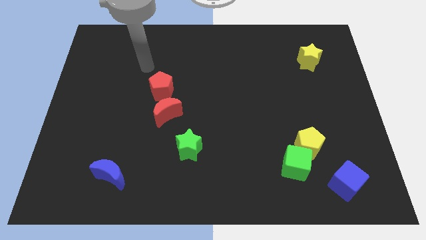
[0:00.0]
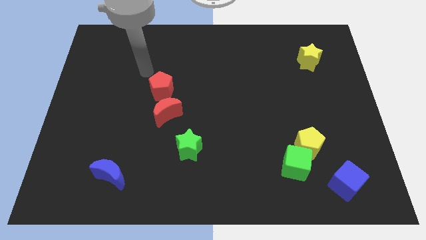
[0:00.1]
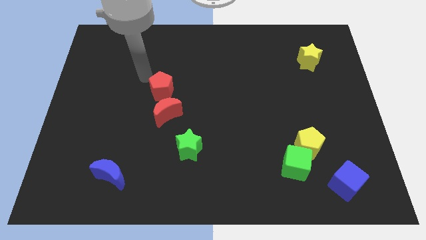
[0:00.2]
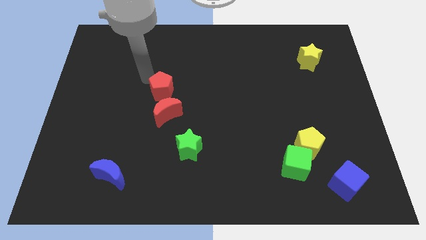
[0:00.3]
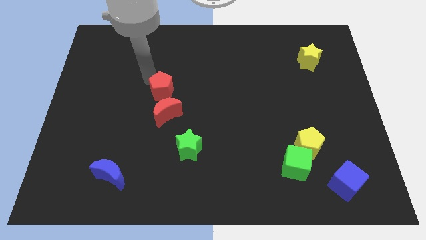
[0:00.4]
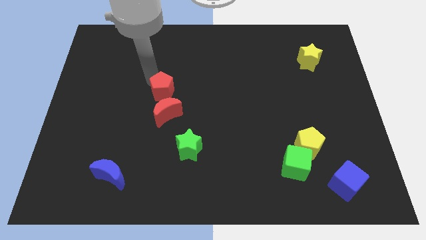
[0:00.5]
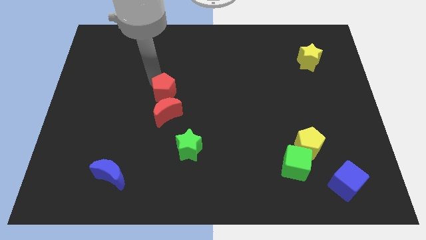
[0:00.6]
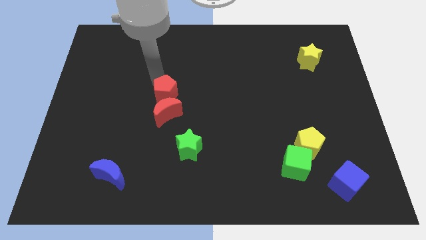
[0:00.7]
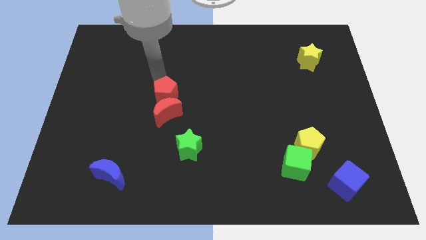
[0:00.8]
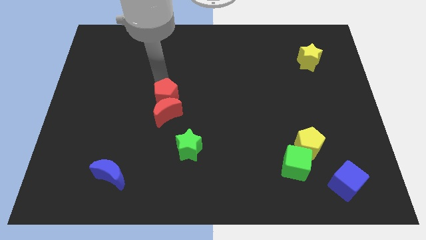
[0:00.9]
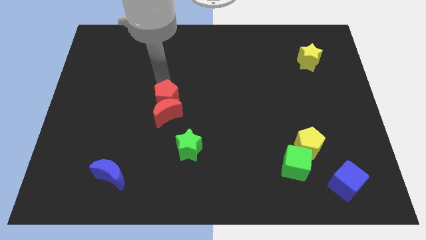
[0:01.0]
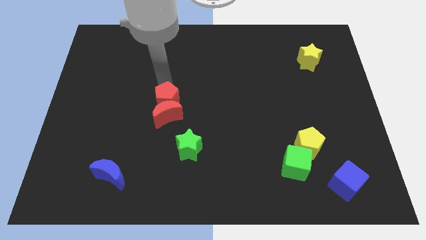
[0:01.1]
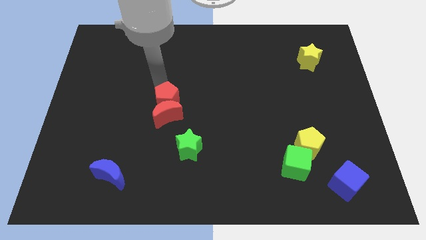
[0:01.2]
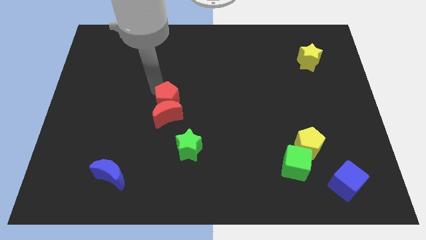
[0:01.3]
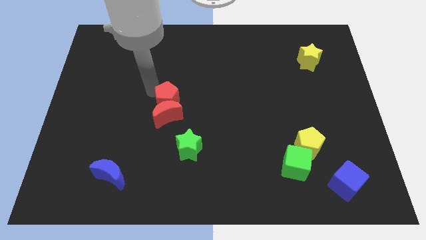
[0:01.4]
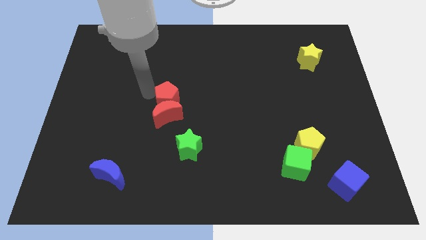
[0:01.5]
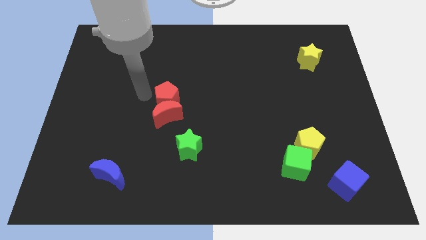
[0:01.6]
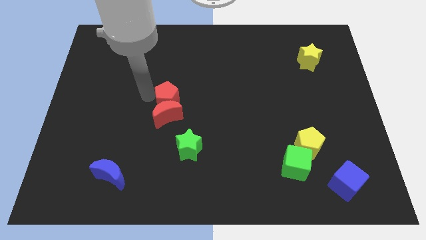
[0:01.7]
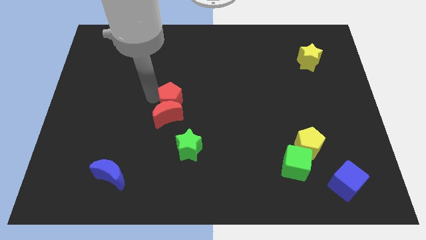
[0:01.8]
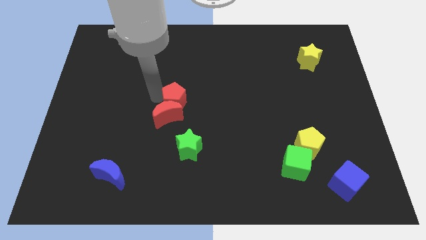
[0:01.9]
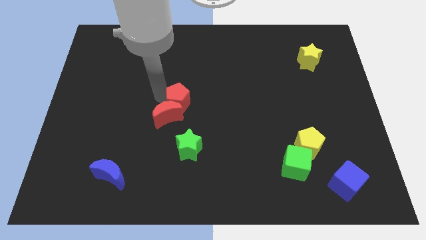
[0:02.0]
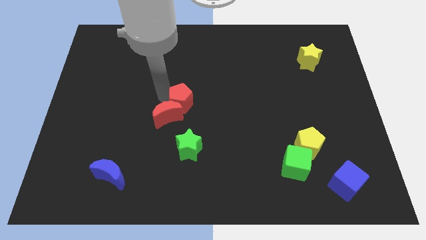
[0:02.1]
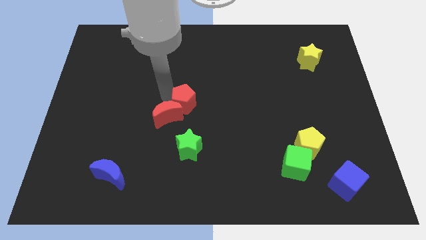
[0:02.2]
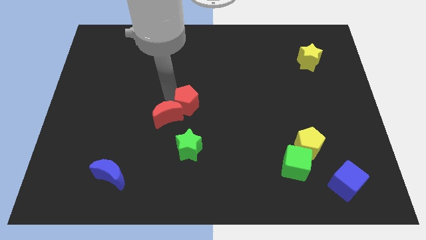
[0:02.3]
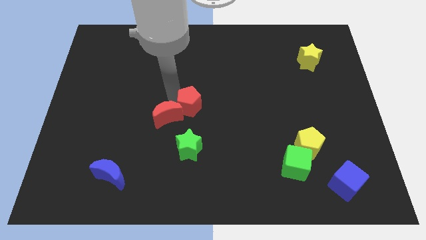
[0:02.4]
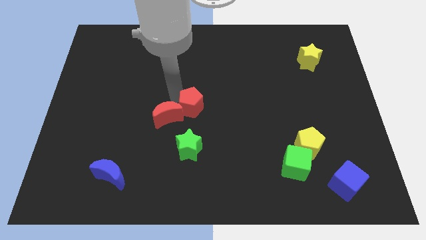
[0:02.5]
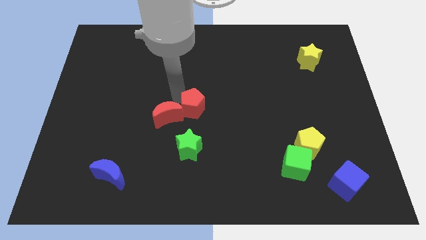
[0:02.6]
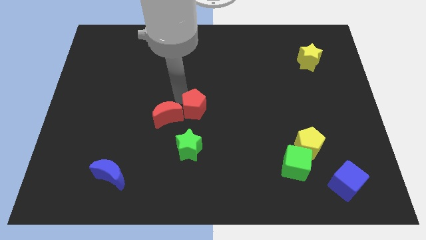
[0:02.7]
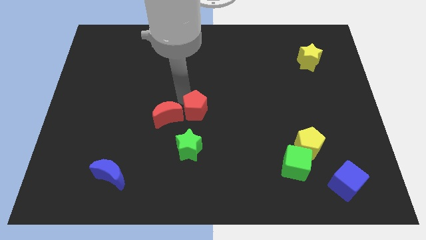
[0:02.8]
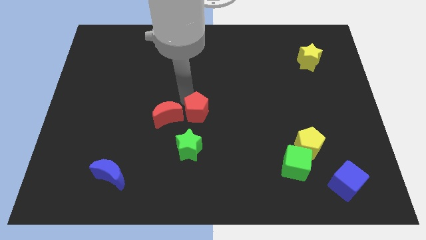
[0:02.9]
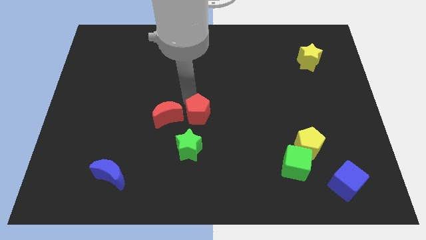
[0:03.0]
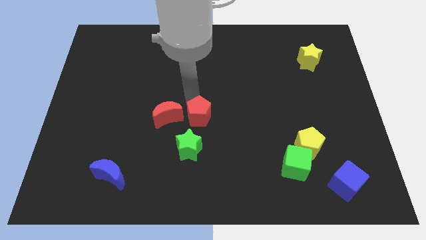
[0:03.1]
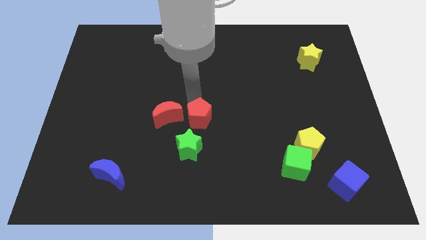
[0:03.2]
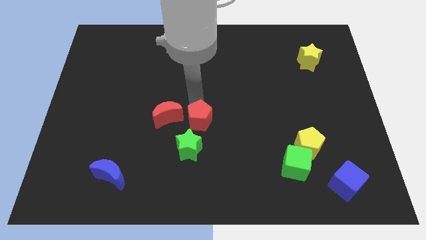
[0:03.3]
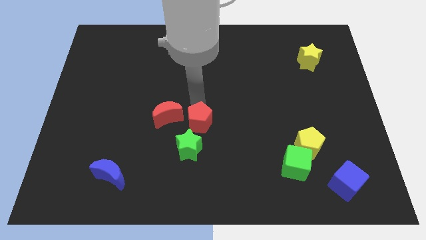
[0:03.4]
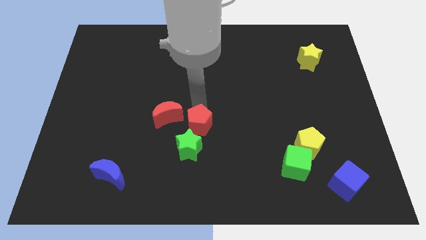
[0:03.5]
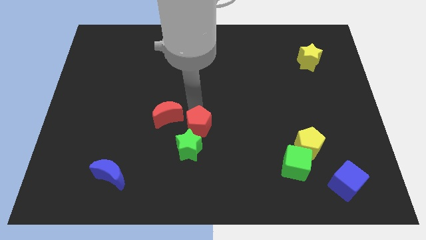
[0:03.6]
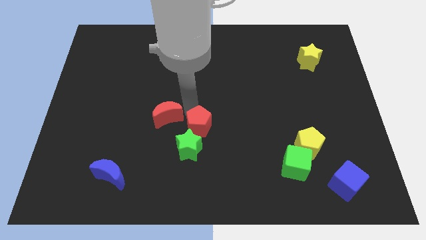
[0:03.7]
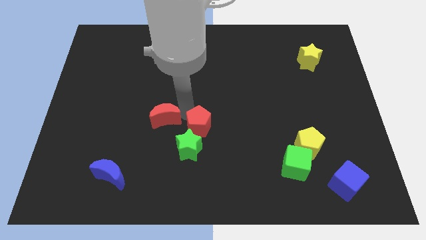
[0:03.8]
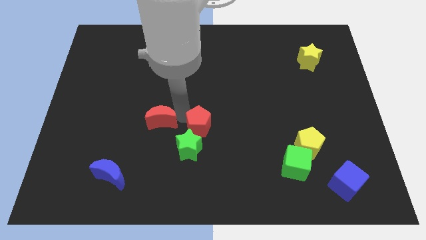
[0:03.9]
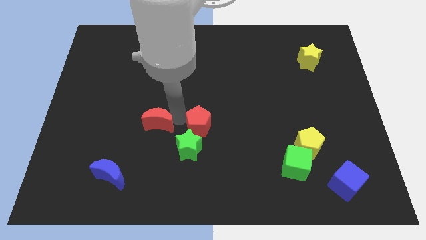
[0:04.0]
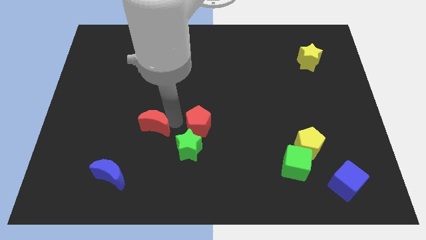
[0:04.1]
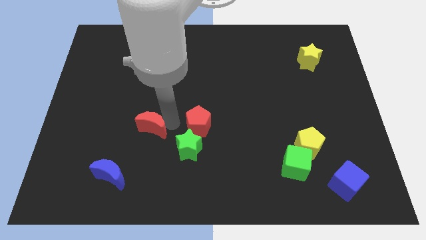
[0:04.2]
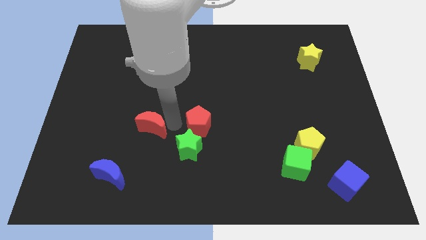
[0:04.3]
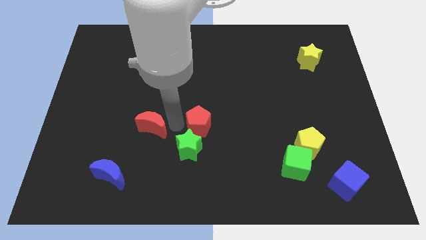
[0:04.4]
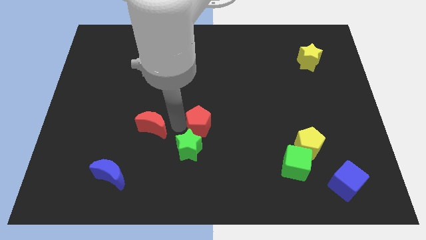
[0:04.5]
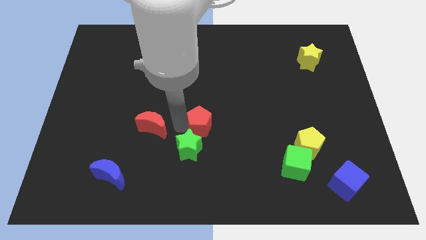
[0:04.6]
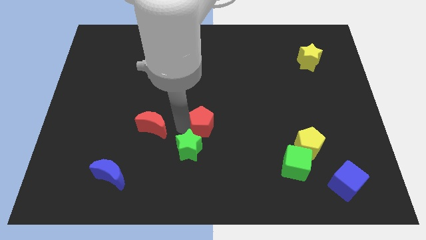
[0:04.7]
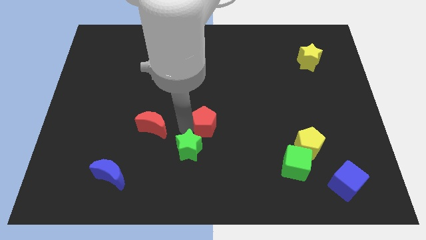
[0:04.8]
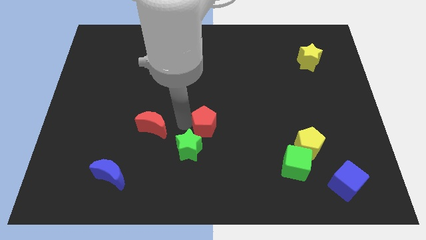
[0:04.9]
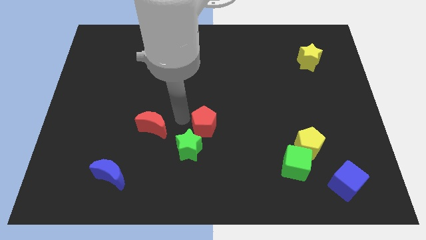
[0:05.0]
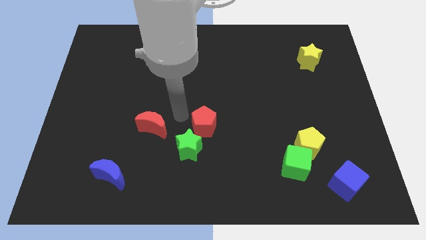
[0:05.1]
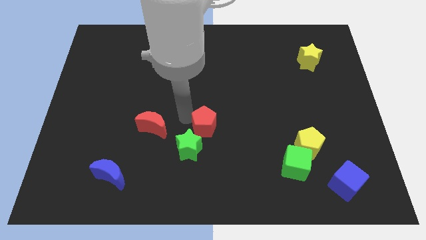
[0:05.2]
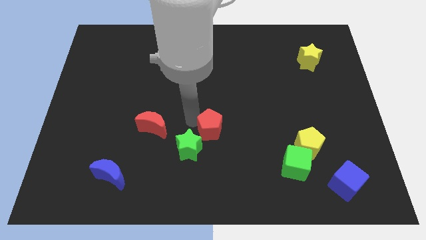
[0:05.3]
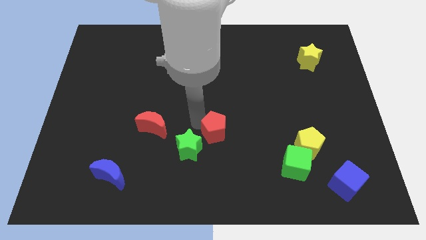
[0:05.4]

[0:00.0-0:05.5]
put the red pentagon just right of the green star

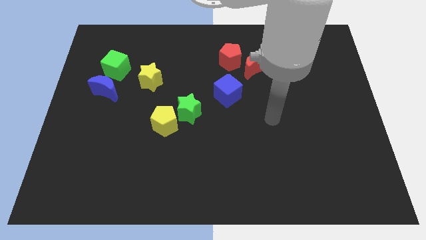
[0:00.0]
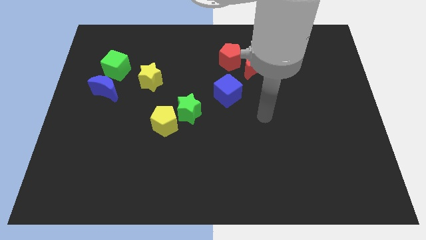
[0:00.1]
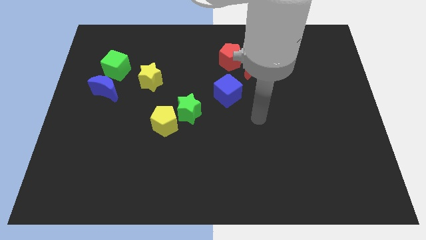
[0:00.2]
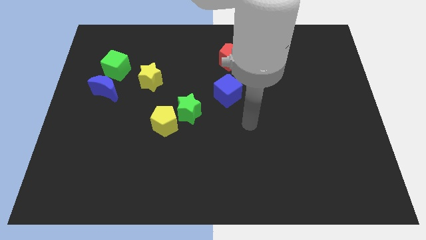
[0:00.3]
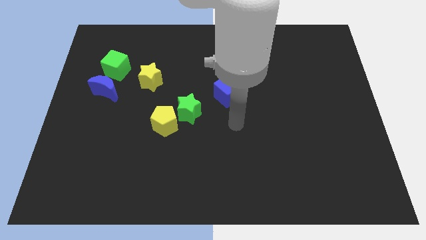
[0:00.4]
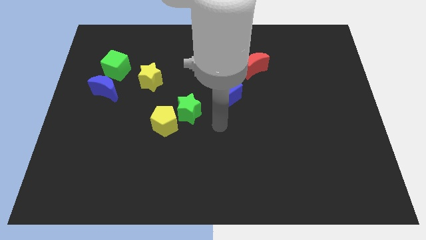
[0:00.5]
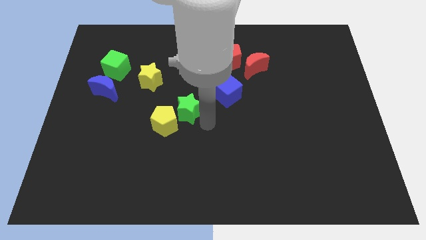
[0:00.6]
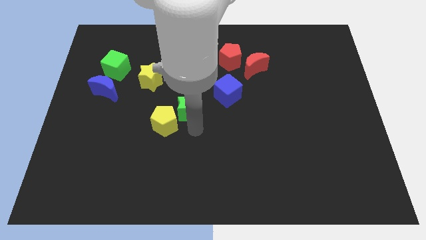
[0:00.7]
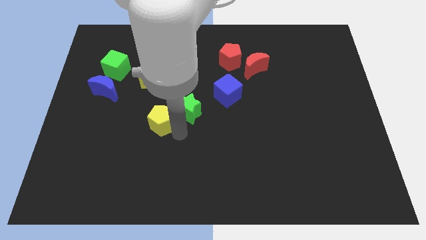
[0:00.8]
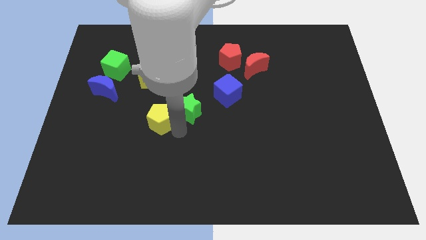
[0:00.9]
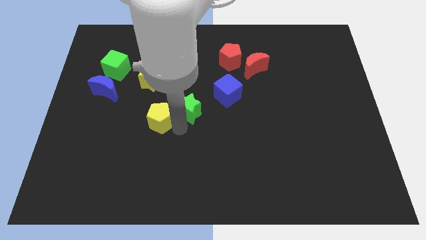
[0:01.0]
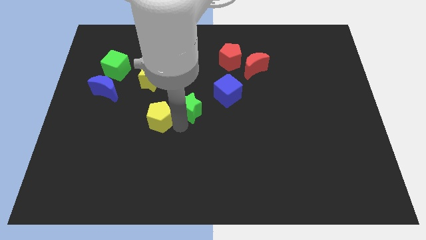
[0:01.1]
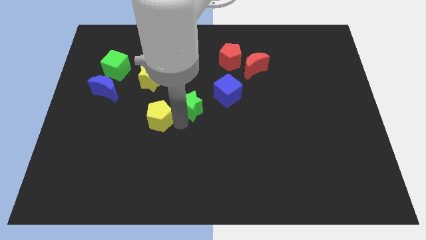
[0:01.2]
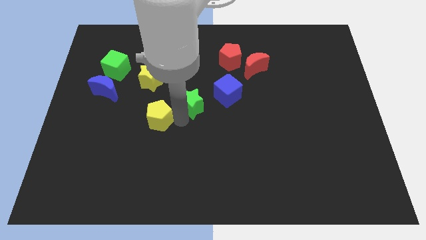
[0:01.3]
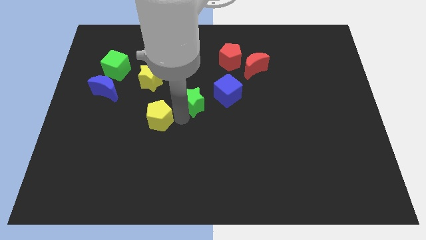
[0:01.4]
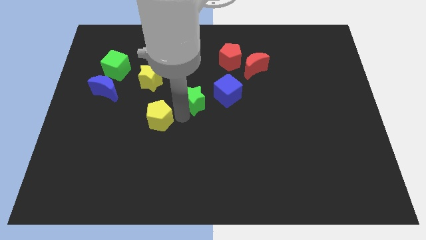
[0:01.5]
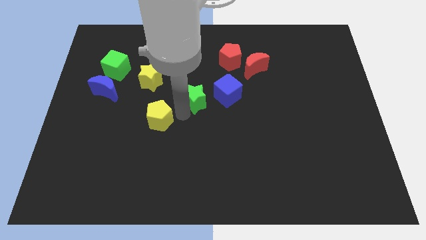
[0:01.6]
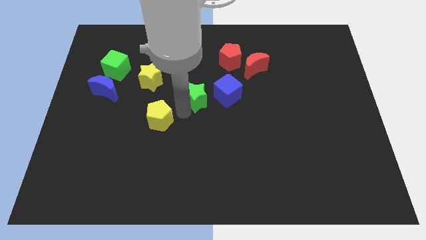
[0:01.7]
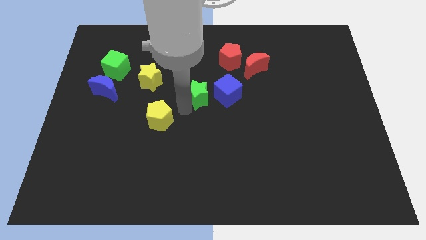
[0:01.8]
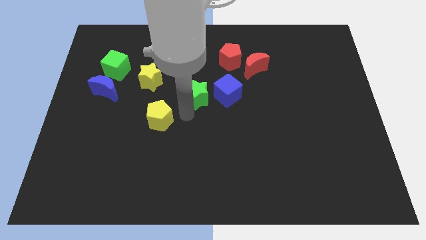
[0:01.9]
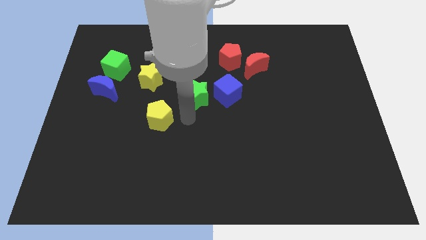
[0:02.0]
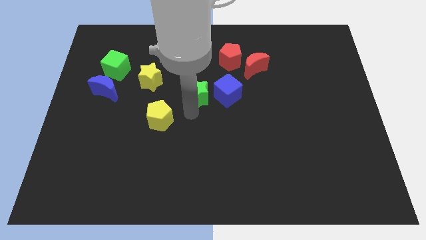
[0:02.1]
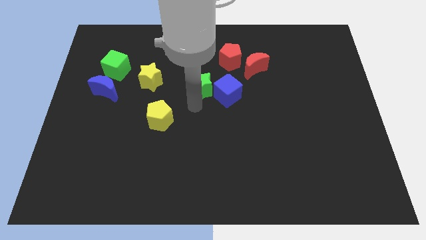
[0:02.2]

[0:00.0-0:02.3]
slide the green star to the bottom left of the red pentagon
